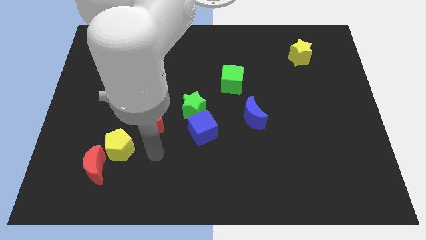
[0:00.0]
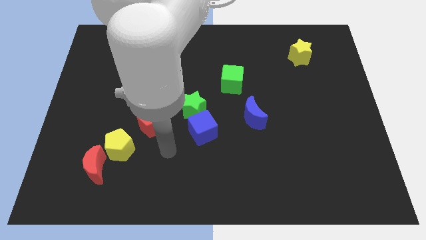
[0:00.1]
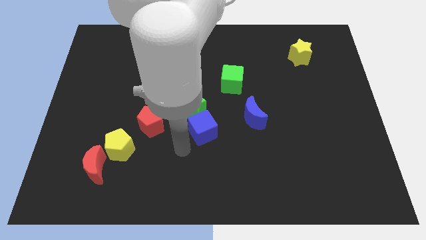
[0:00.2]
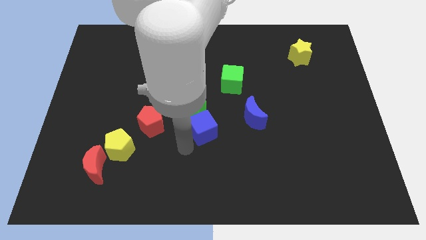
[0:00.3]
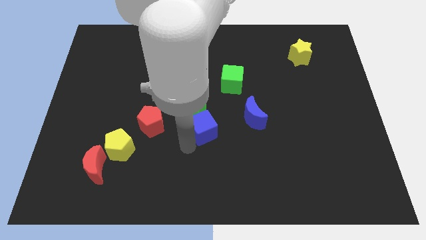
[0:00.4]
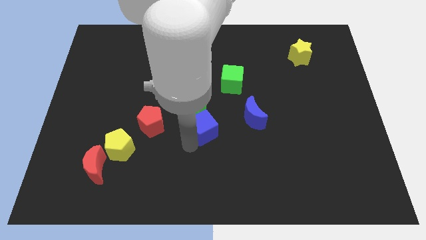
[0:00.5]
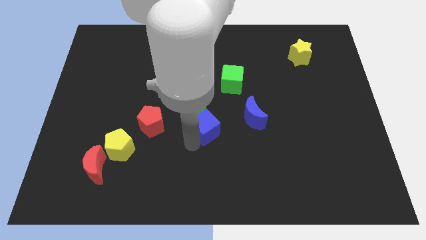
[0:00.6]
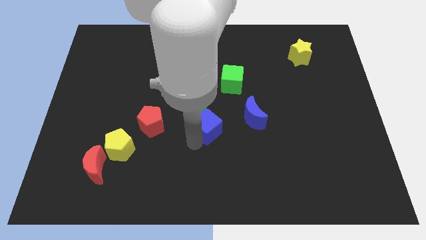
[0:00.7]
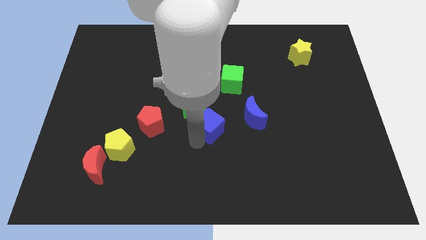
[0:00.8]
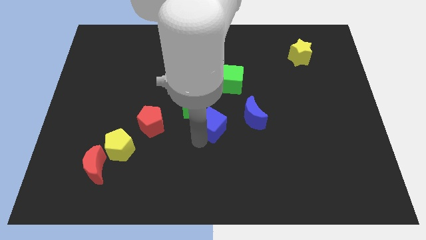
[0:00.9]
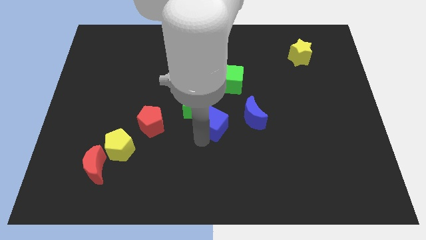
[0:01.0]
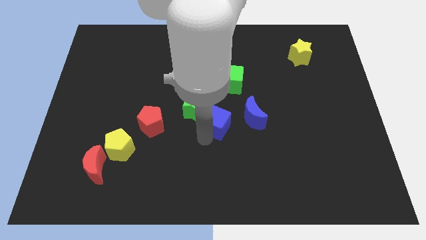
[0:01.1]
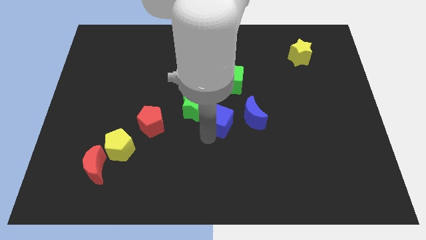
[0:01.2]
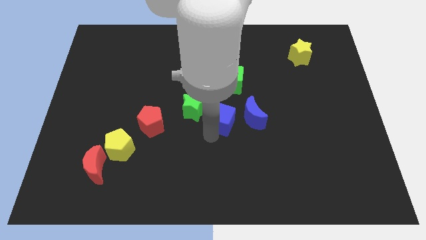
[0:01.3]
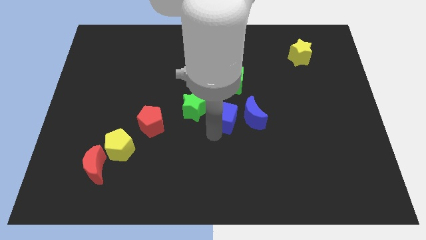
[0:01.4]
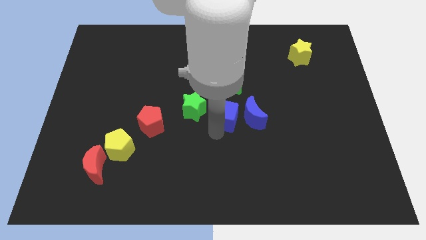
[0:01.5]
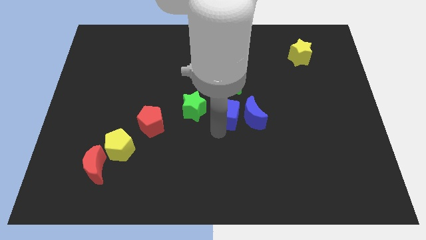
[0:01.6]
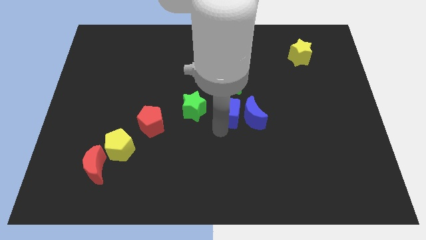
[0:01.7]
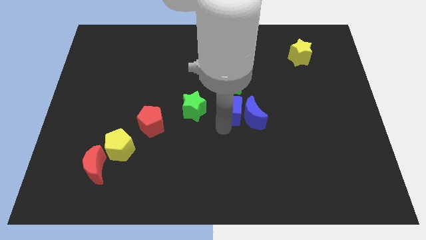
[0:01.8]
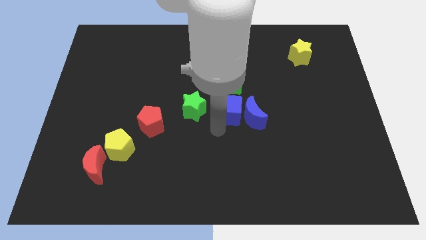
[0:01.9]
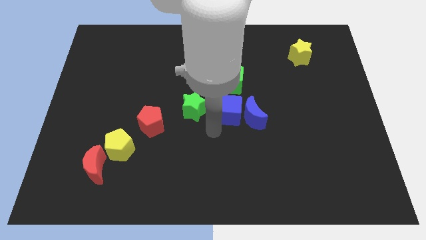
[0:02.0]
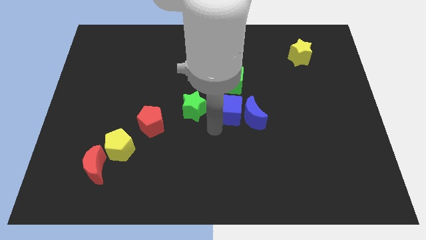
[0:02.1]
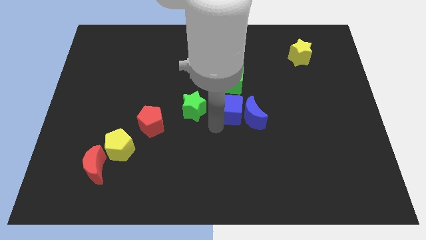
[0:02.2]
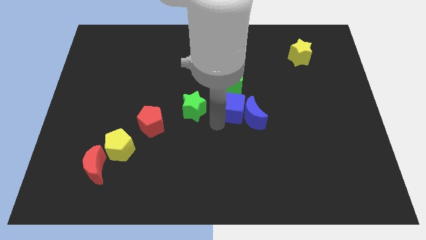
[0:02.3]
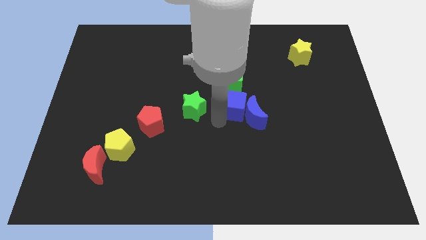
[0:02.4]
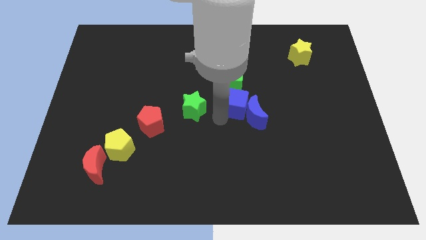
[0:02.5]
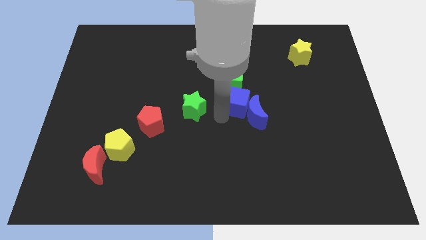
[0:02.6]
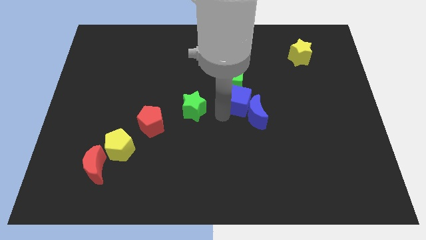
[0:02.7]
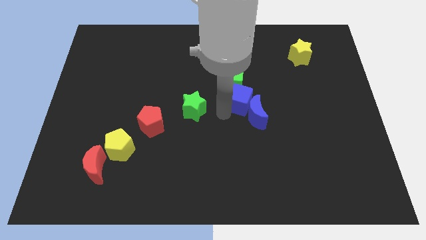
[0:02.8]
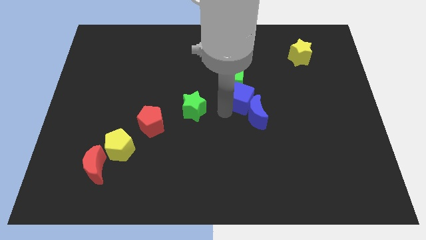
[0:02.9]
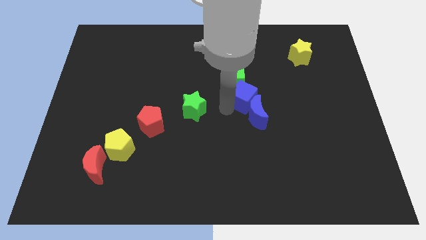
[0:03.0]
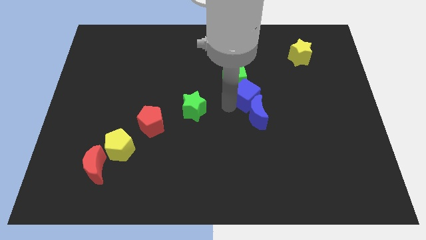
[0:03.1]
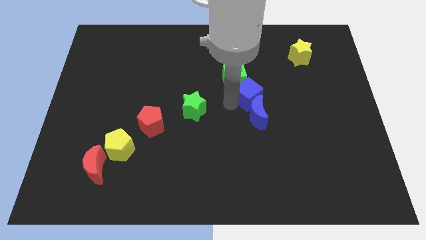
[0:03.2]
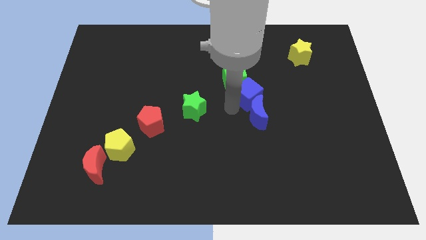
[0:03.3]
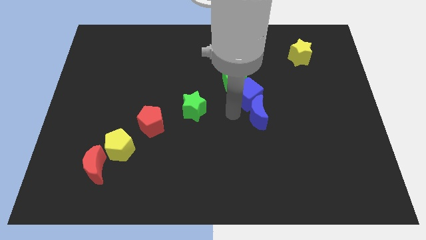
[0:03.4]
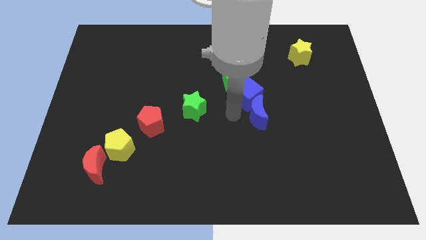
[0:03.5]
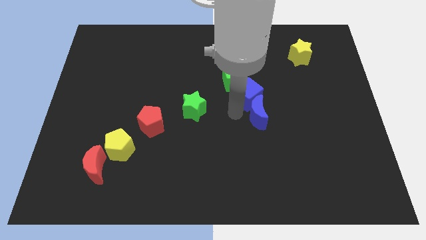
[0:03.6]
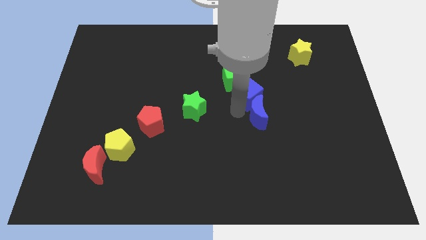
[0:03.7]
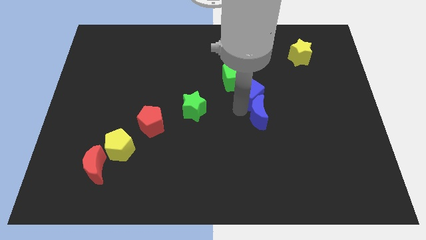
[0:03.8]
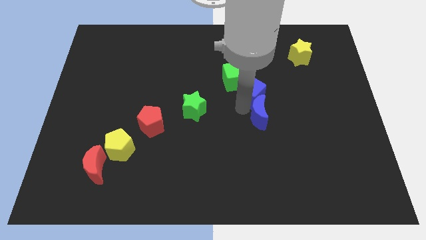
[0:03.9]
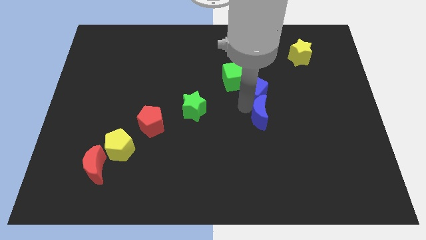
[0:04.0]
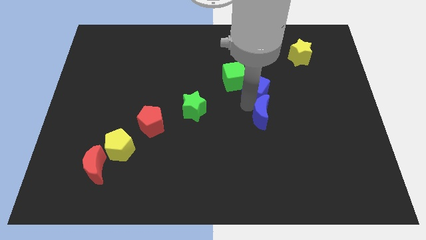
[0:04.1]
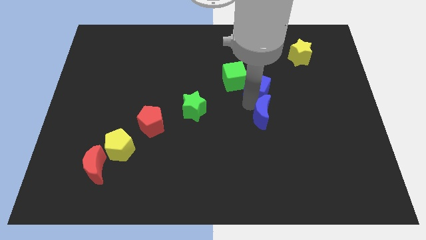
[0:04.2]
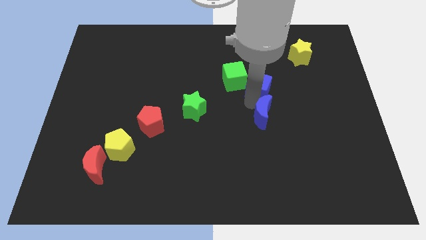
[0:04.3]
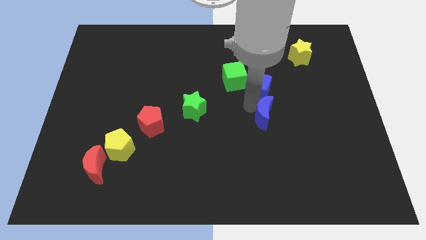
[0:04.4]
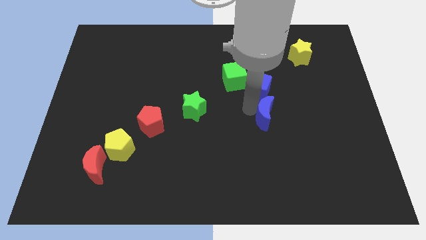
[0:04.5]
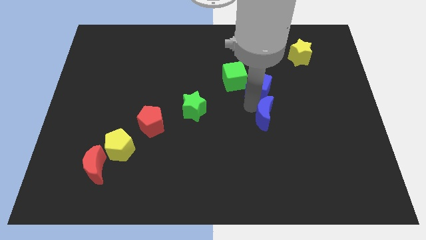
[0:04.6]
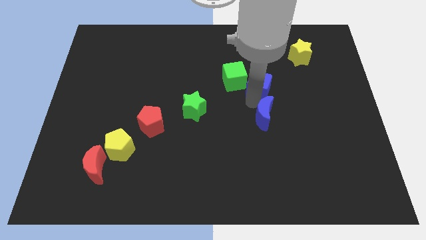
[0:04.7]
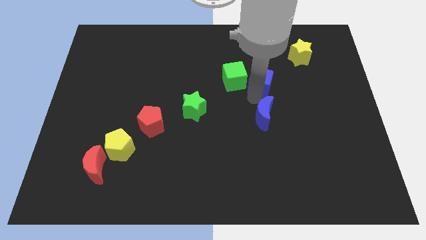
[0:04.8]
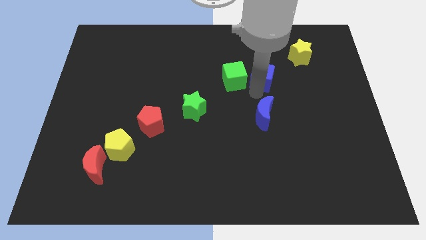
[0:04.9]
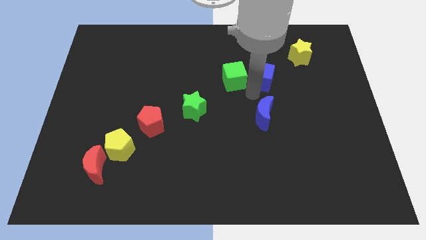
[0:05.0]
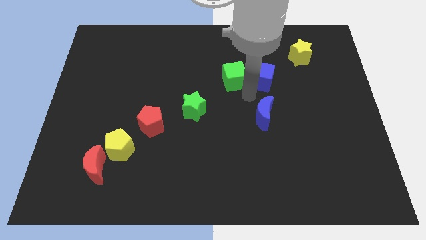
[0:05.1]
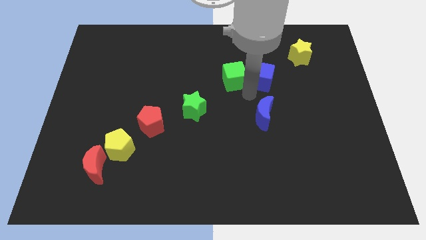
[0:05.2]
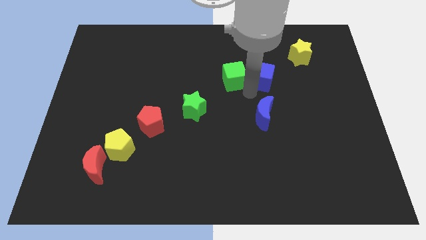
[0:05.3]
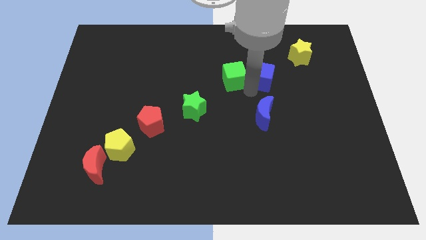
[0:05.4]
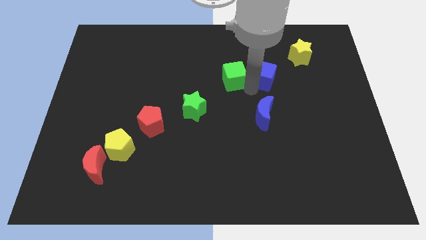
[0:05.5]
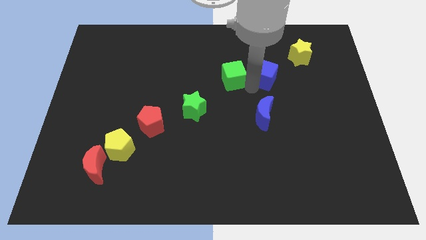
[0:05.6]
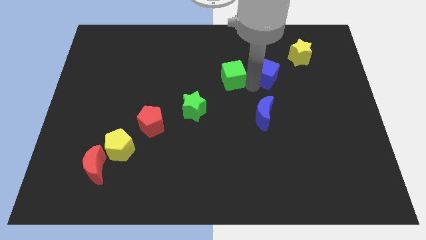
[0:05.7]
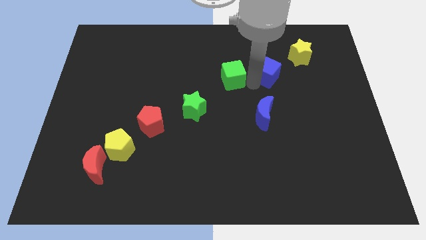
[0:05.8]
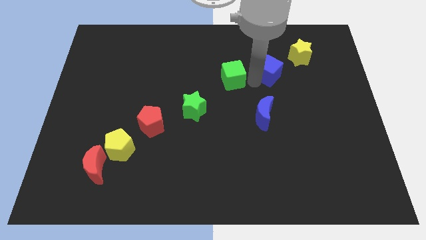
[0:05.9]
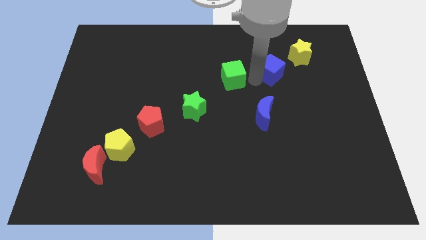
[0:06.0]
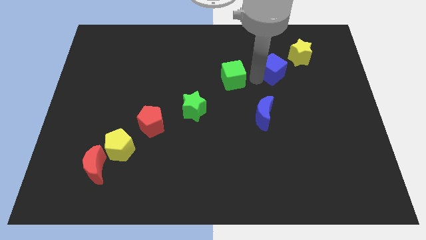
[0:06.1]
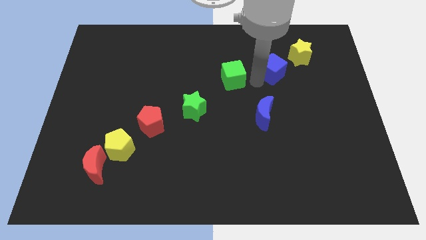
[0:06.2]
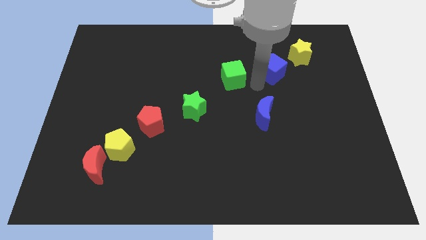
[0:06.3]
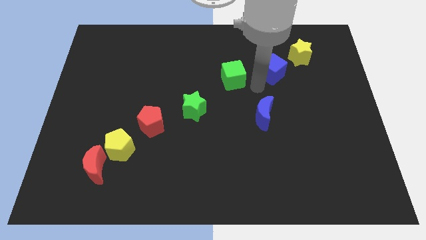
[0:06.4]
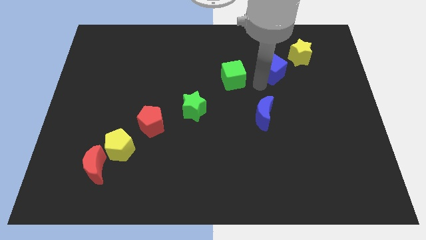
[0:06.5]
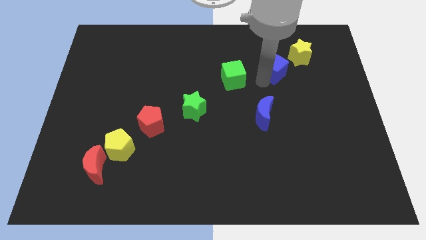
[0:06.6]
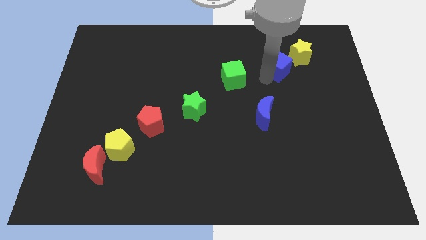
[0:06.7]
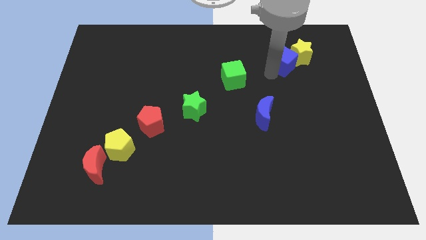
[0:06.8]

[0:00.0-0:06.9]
put the blue cube close to the yellow star
